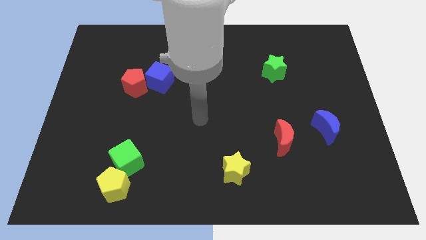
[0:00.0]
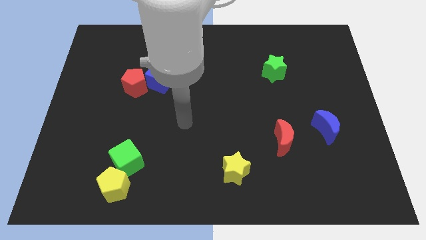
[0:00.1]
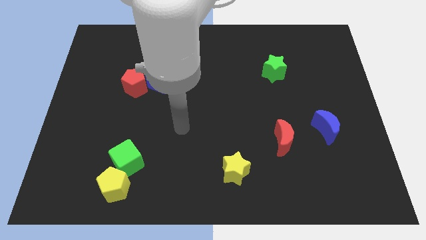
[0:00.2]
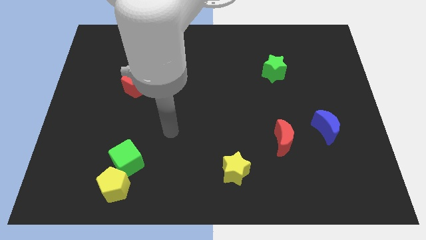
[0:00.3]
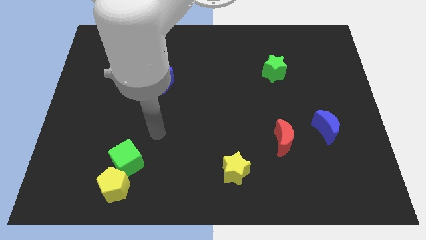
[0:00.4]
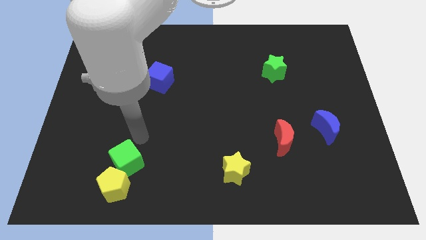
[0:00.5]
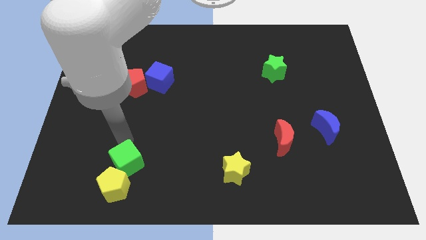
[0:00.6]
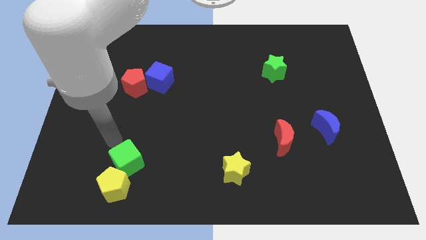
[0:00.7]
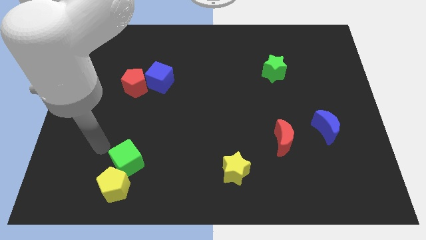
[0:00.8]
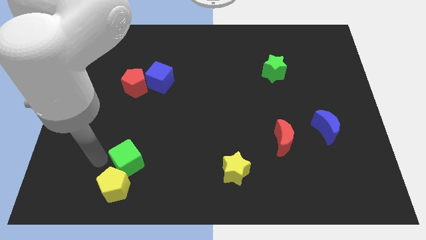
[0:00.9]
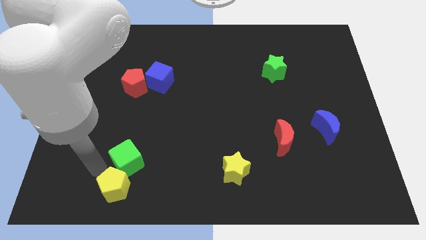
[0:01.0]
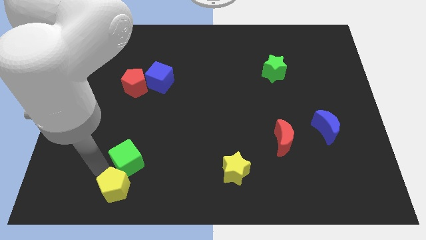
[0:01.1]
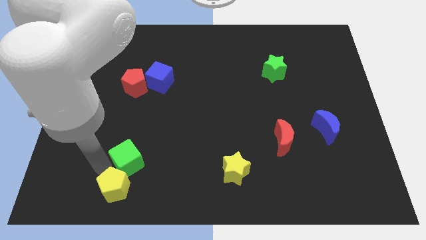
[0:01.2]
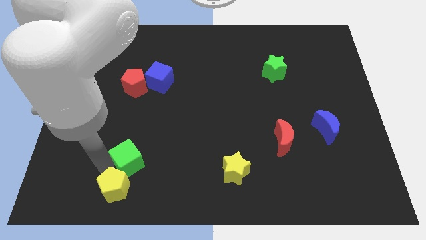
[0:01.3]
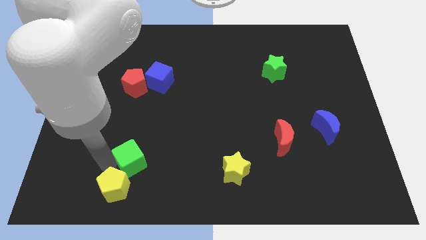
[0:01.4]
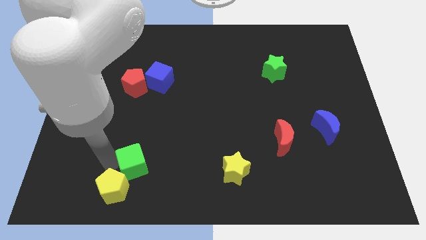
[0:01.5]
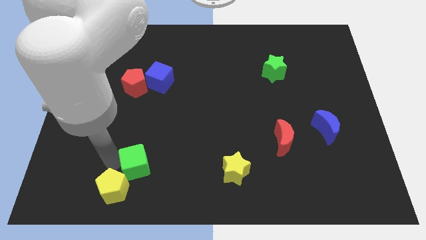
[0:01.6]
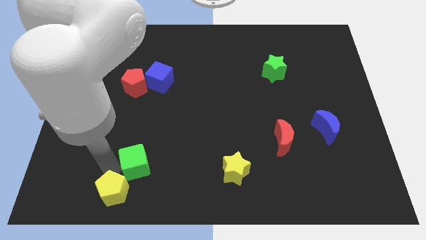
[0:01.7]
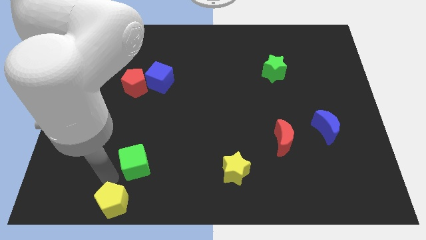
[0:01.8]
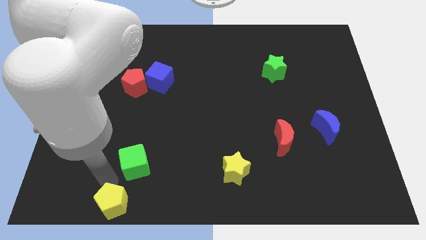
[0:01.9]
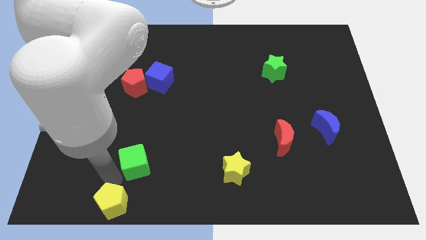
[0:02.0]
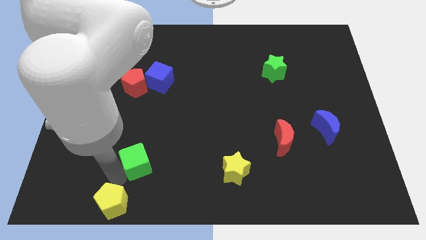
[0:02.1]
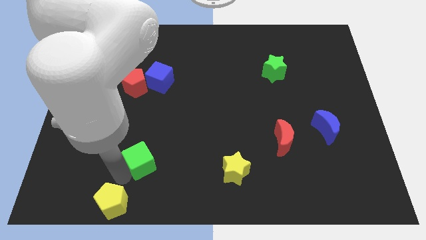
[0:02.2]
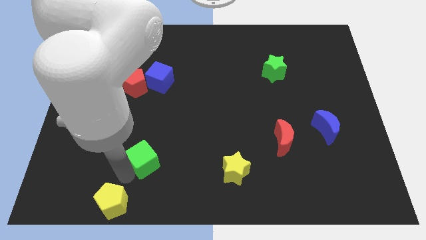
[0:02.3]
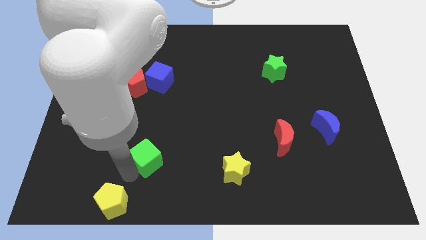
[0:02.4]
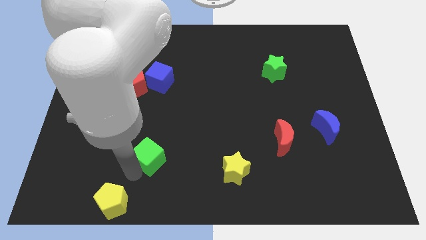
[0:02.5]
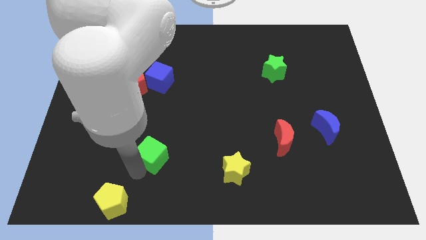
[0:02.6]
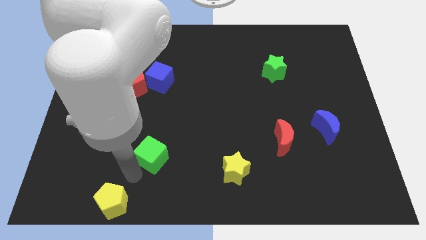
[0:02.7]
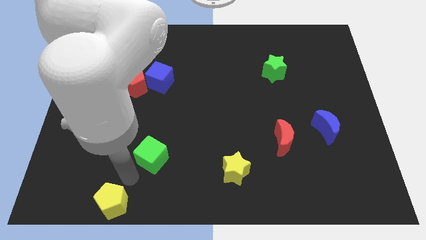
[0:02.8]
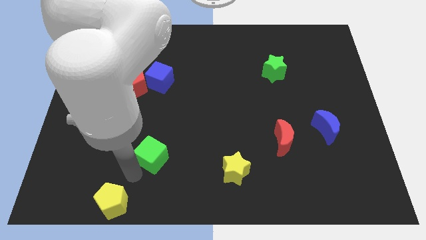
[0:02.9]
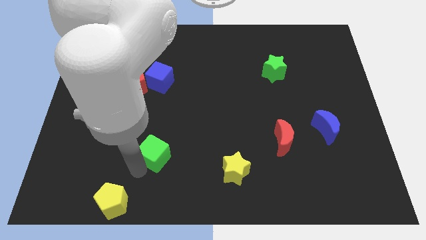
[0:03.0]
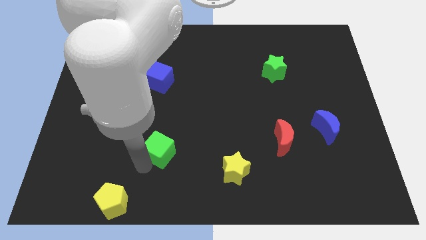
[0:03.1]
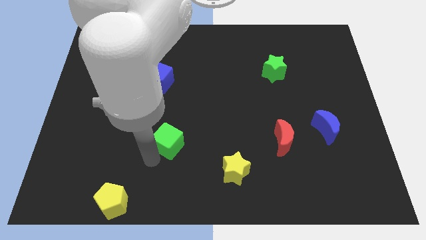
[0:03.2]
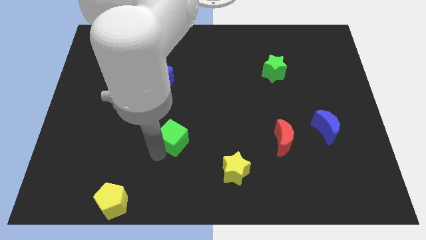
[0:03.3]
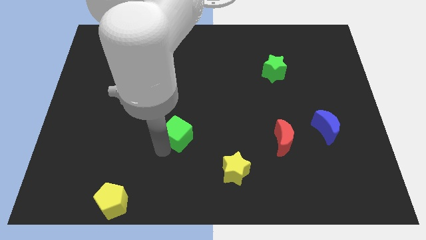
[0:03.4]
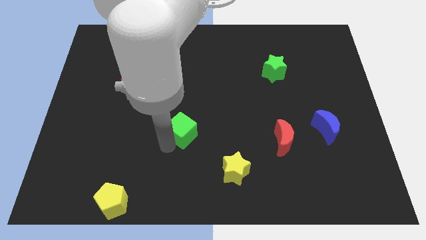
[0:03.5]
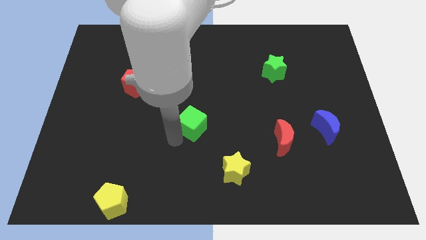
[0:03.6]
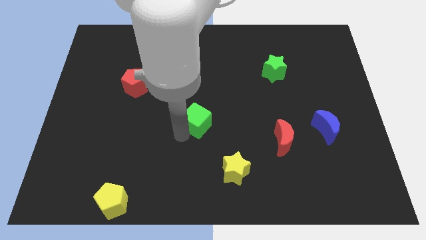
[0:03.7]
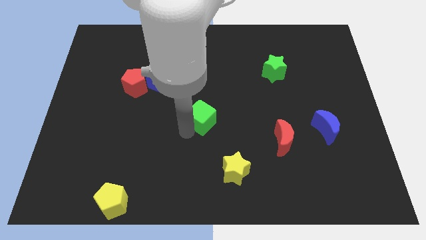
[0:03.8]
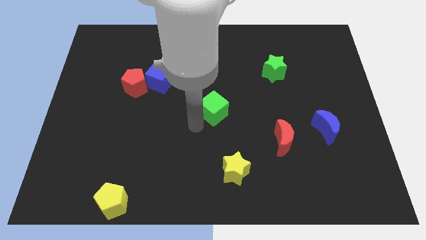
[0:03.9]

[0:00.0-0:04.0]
move the green cube diagonally upwards and right

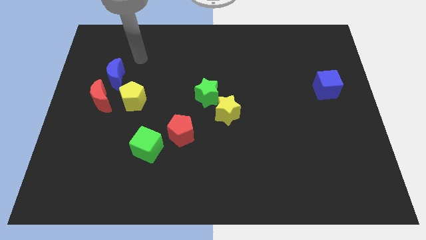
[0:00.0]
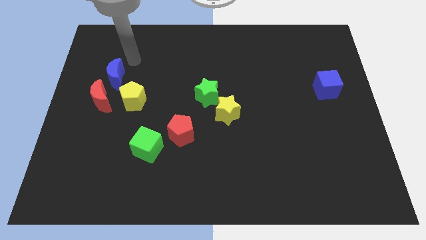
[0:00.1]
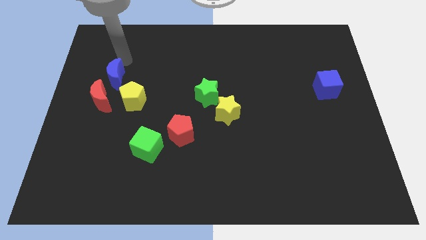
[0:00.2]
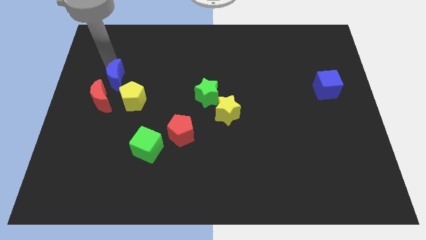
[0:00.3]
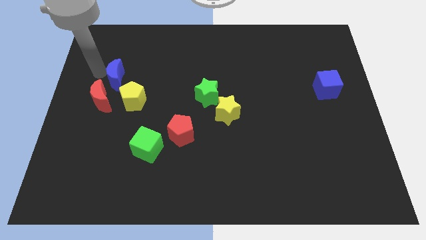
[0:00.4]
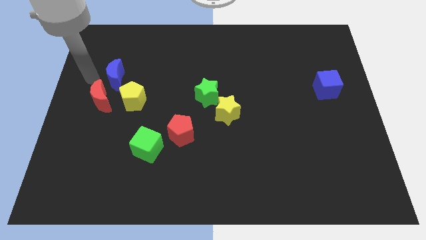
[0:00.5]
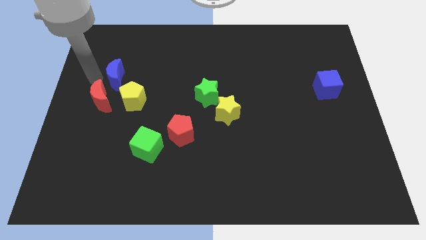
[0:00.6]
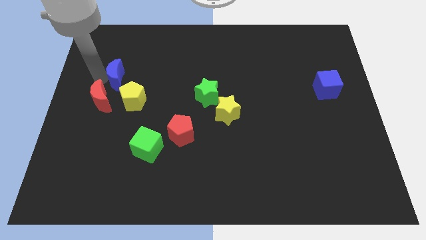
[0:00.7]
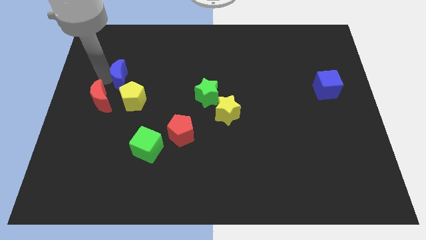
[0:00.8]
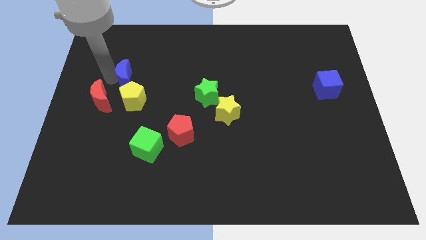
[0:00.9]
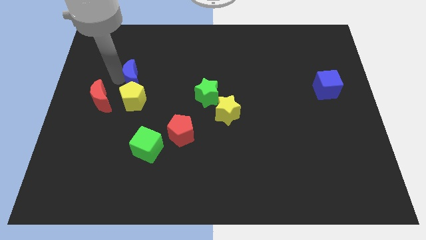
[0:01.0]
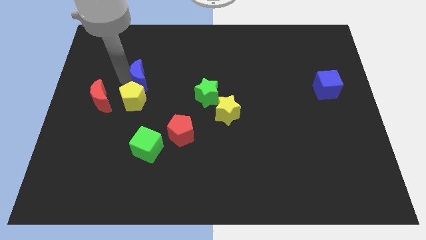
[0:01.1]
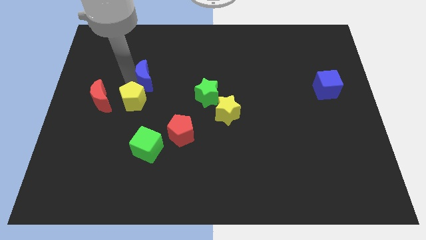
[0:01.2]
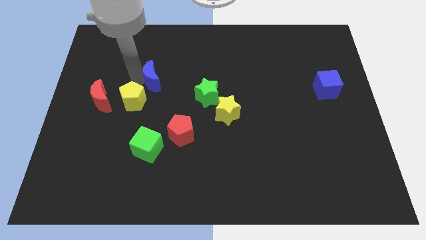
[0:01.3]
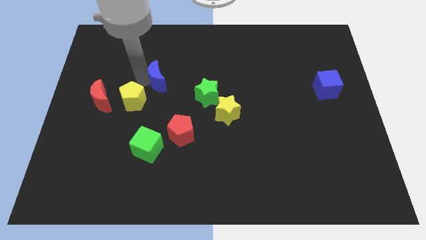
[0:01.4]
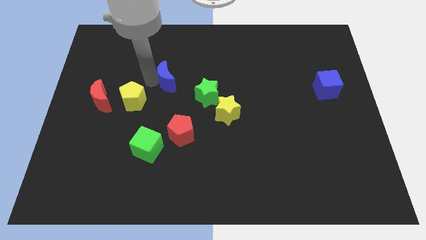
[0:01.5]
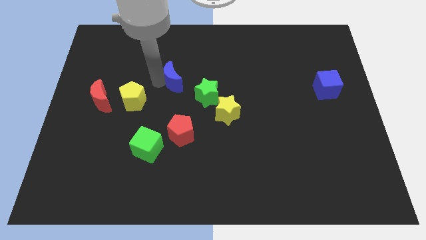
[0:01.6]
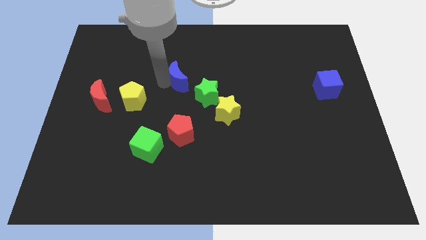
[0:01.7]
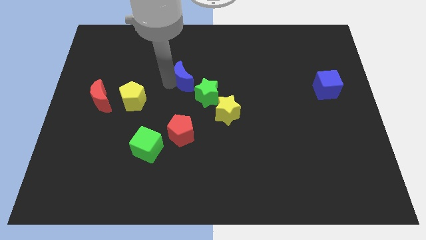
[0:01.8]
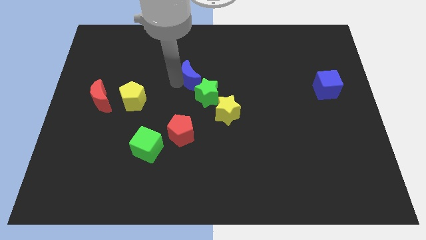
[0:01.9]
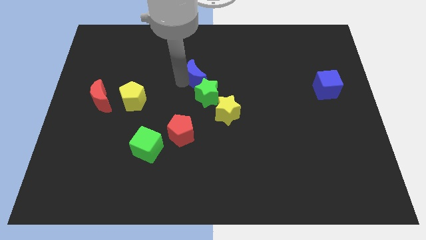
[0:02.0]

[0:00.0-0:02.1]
slide the blue moon to the right

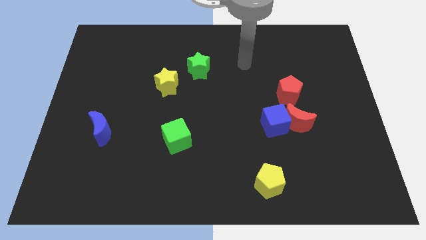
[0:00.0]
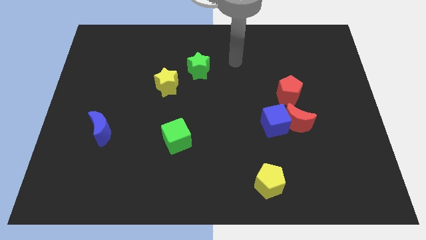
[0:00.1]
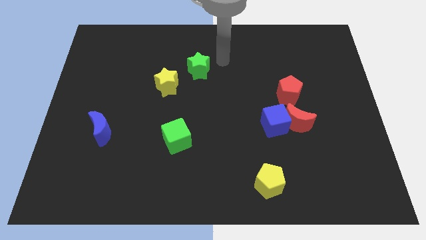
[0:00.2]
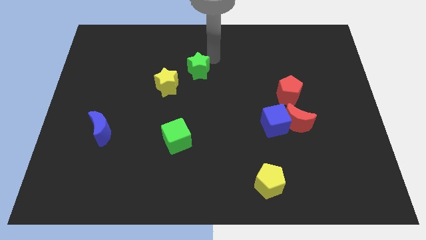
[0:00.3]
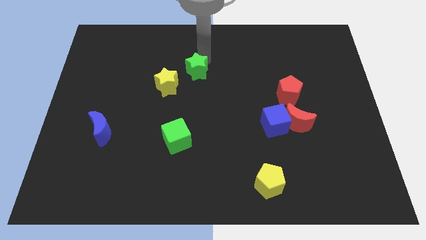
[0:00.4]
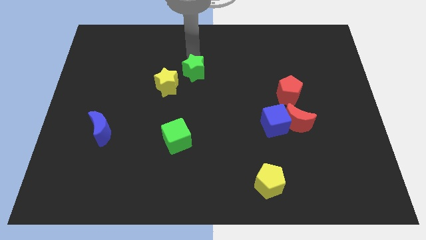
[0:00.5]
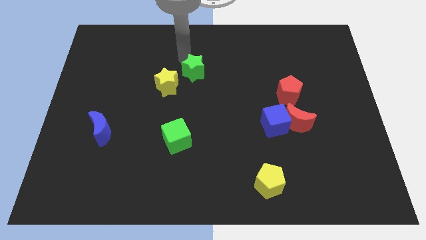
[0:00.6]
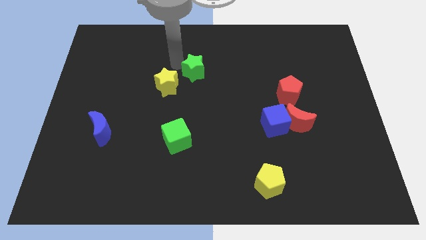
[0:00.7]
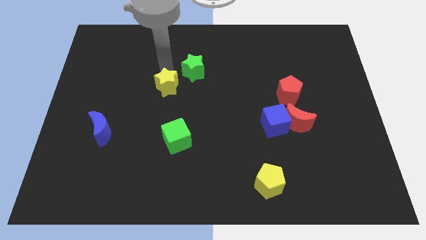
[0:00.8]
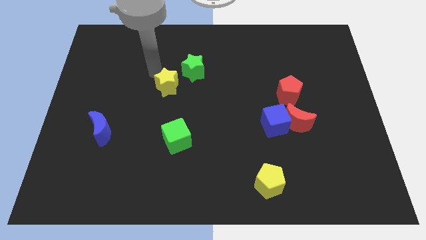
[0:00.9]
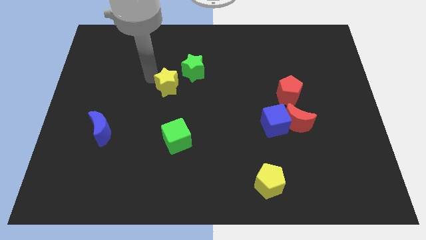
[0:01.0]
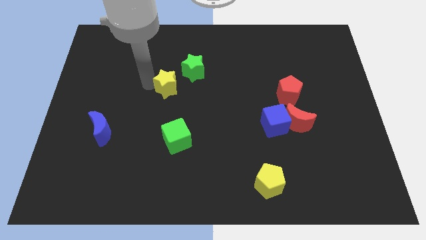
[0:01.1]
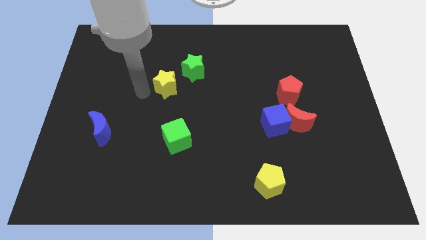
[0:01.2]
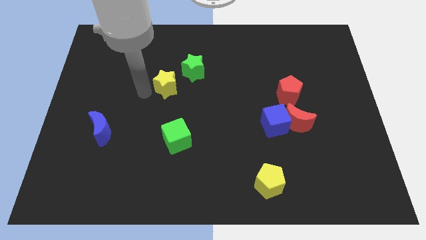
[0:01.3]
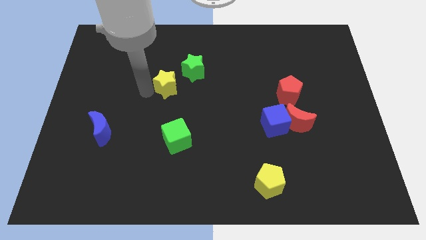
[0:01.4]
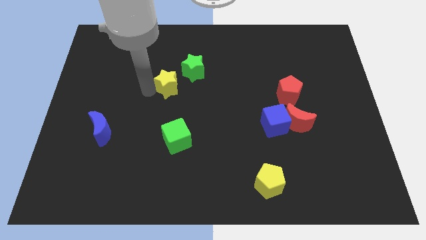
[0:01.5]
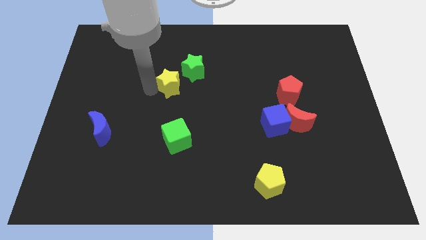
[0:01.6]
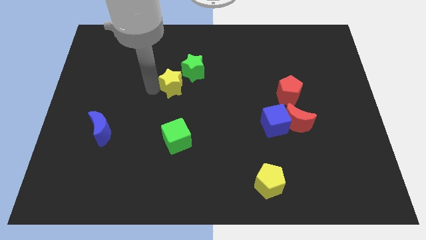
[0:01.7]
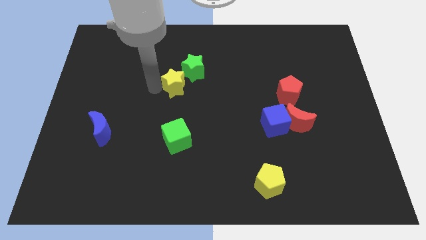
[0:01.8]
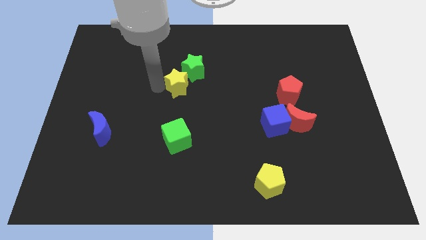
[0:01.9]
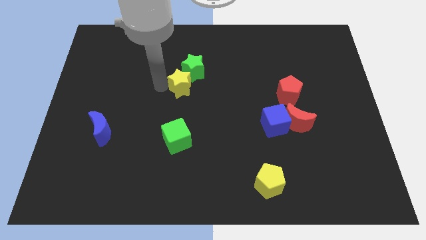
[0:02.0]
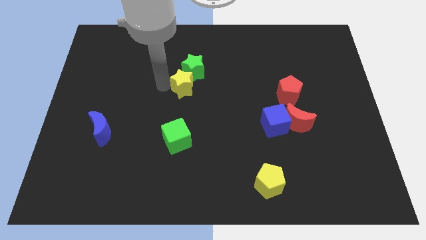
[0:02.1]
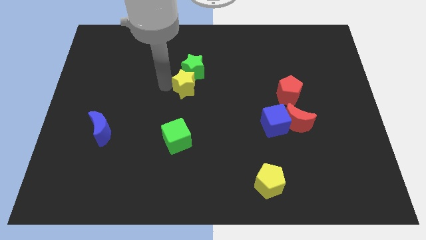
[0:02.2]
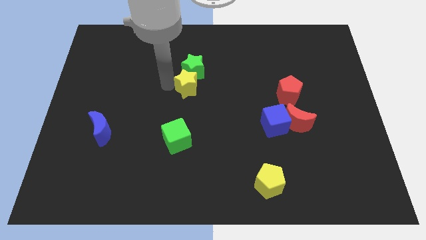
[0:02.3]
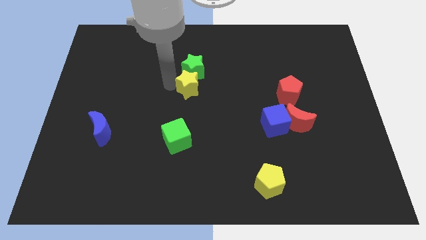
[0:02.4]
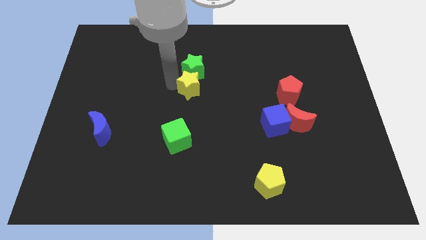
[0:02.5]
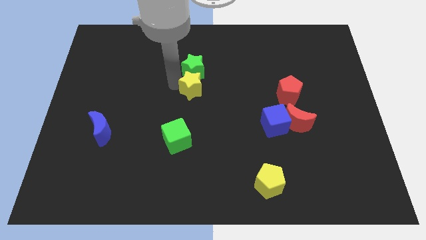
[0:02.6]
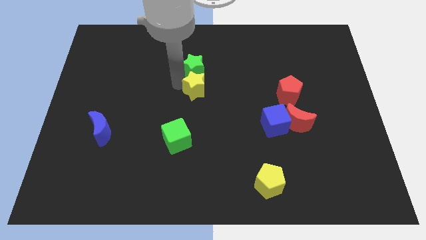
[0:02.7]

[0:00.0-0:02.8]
move the yellow star a bit to the right
